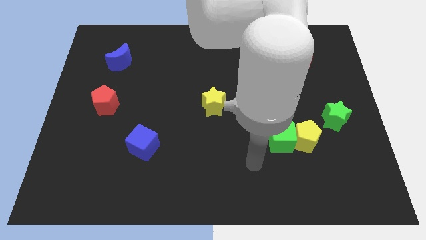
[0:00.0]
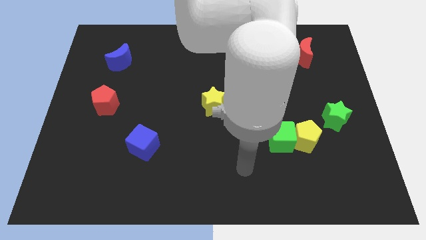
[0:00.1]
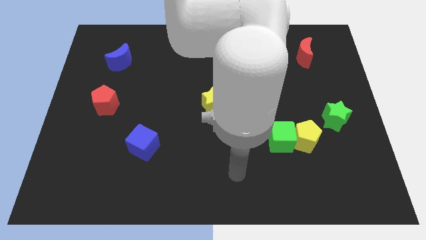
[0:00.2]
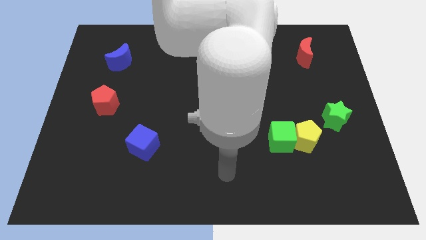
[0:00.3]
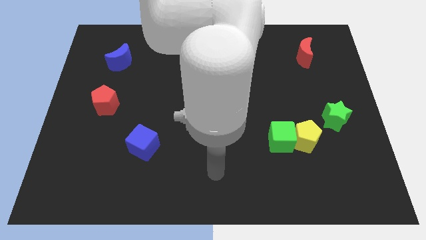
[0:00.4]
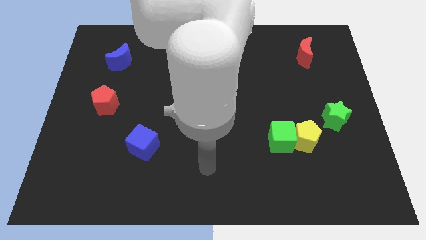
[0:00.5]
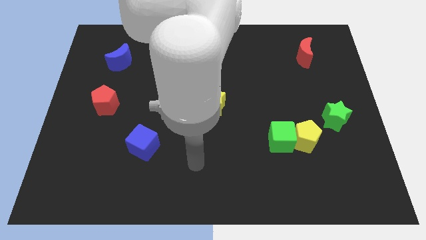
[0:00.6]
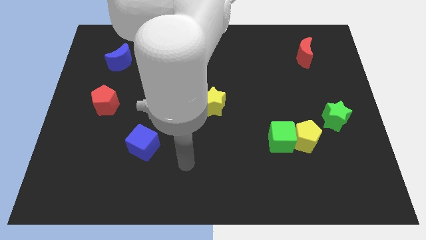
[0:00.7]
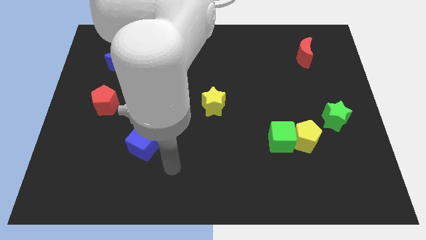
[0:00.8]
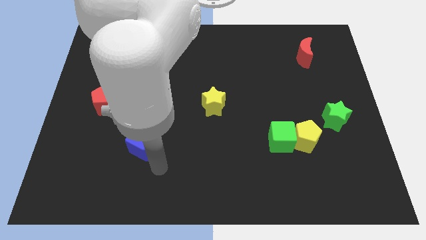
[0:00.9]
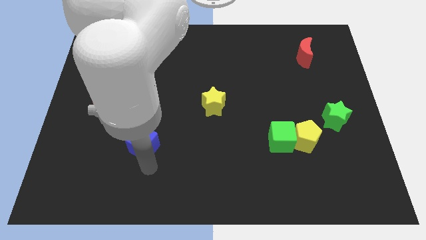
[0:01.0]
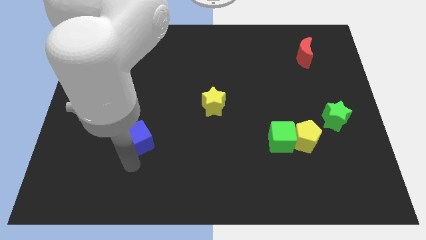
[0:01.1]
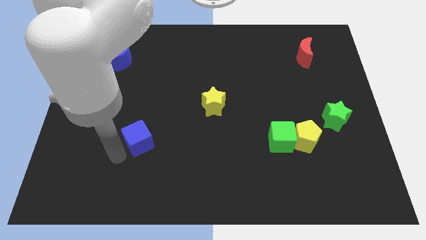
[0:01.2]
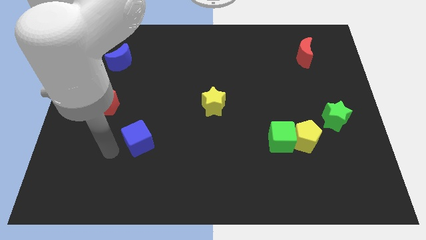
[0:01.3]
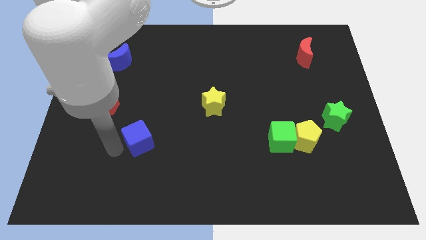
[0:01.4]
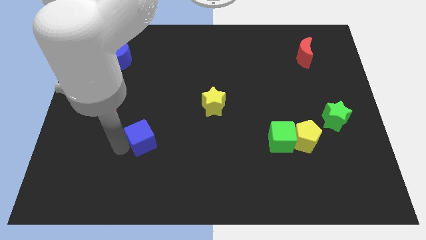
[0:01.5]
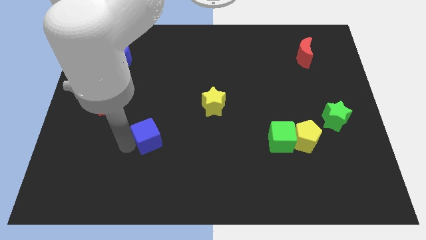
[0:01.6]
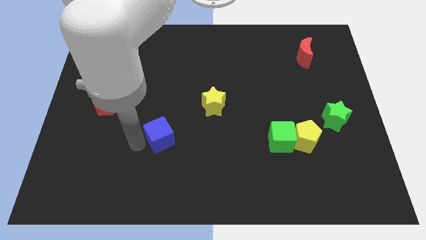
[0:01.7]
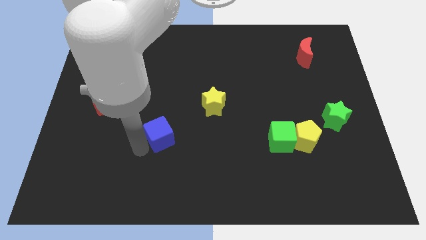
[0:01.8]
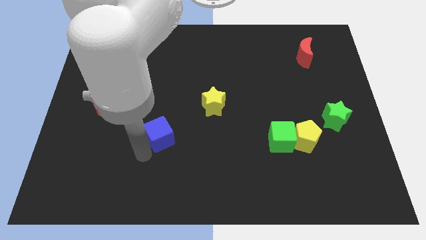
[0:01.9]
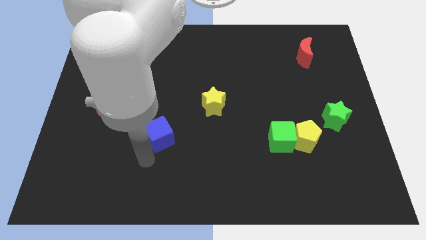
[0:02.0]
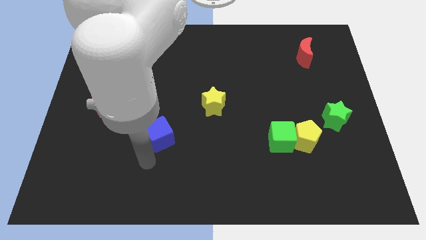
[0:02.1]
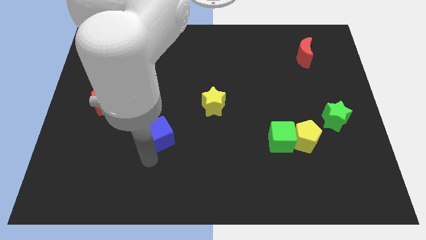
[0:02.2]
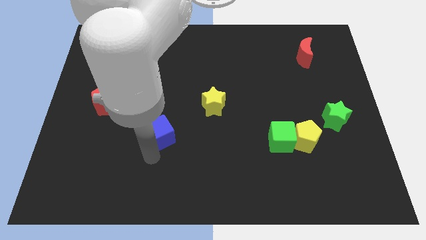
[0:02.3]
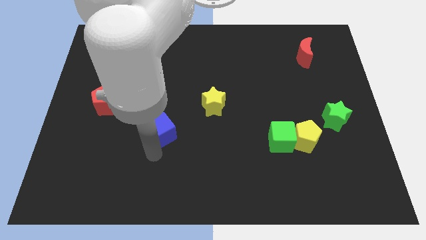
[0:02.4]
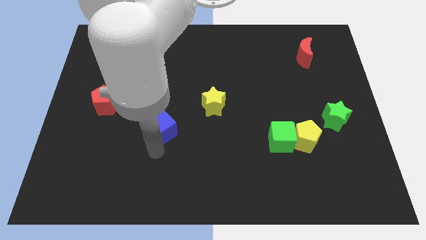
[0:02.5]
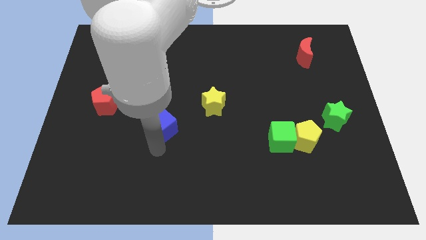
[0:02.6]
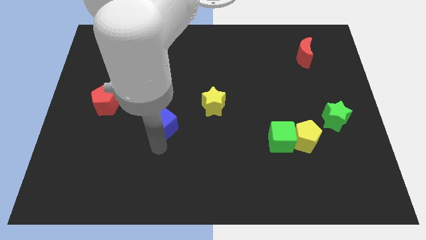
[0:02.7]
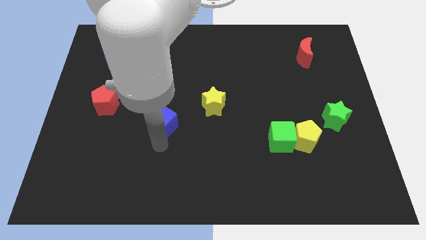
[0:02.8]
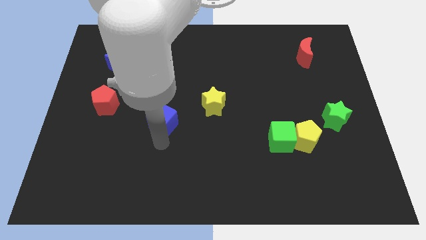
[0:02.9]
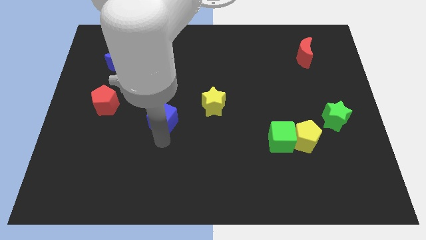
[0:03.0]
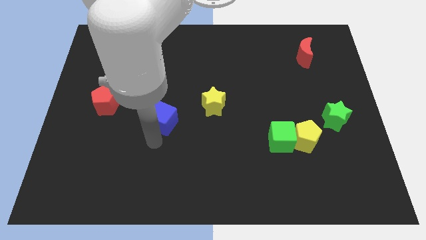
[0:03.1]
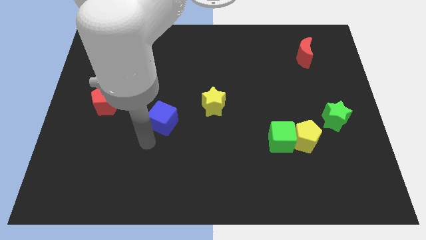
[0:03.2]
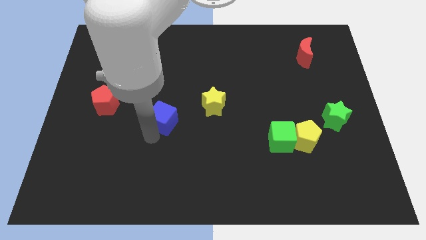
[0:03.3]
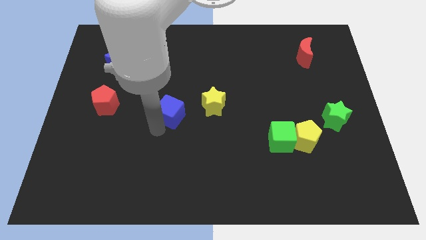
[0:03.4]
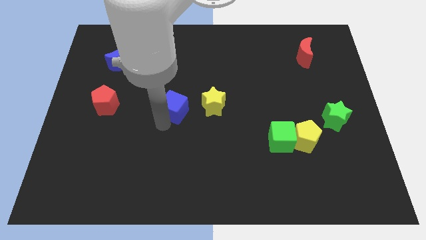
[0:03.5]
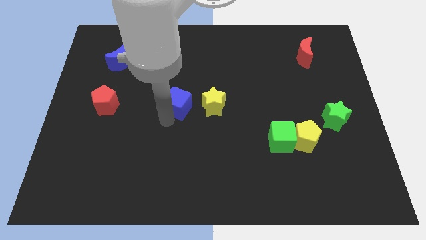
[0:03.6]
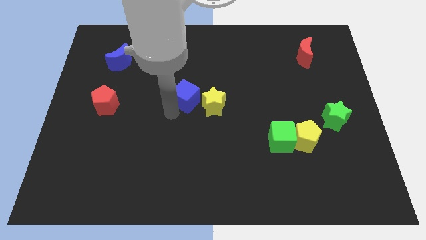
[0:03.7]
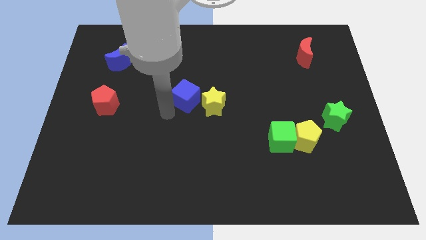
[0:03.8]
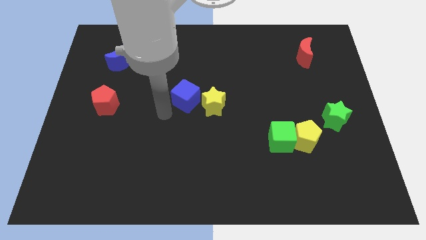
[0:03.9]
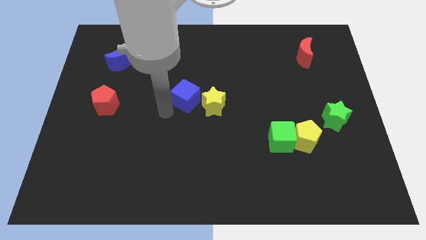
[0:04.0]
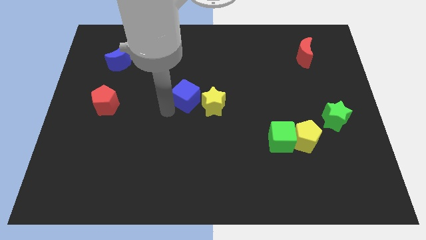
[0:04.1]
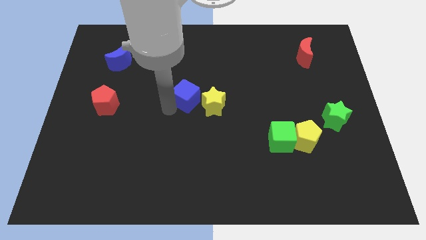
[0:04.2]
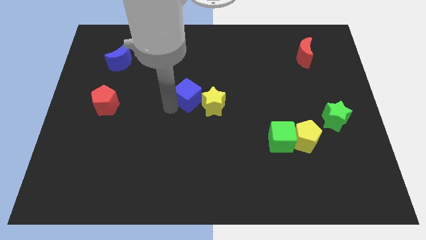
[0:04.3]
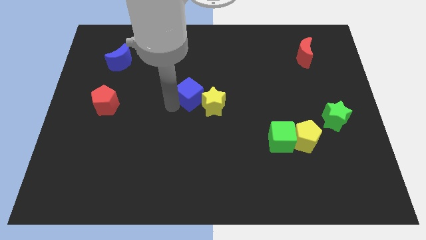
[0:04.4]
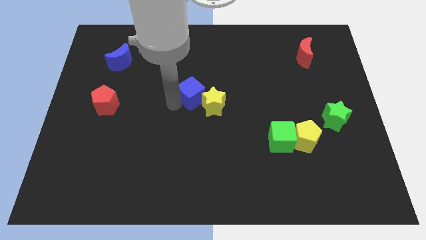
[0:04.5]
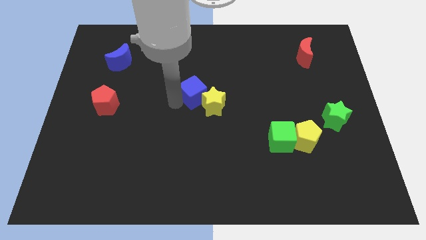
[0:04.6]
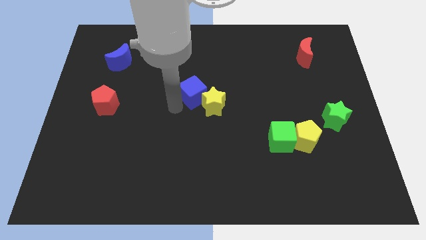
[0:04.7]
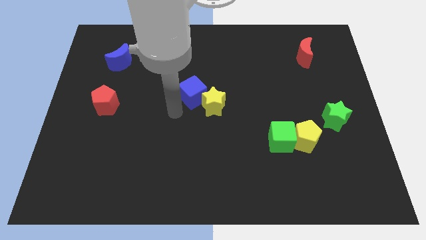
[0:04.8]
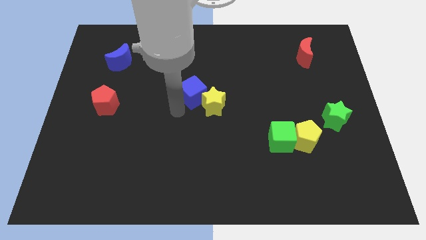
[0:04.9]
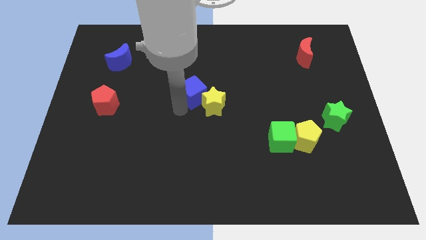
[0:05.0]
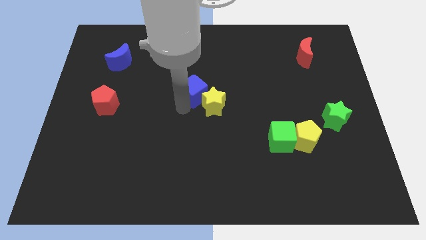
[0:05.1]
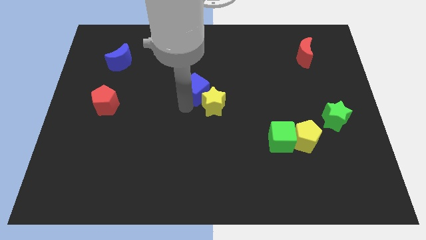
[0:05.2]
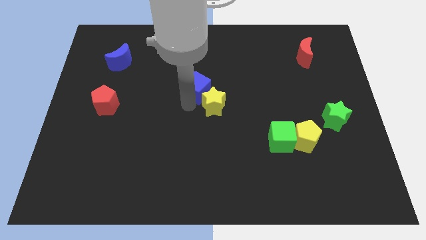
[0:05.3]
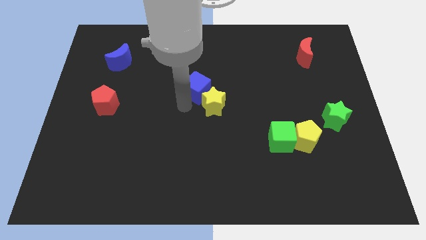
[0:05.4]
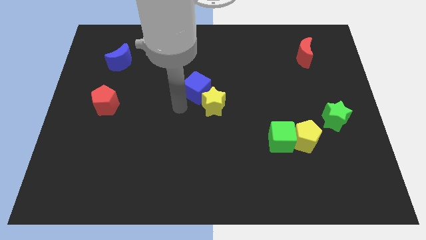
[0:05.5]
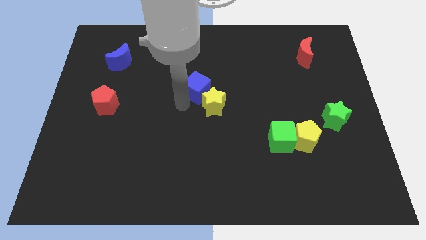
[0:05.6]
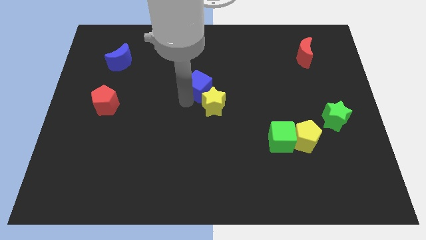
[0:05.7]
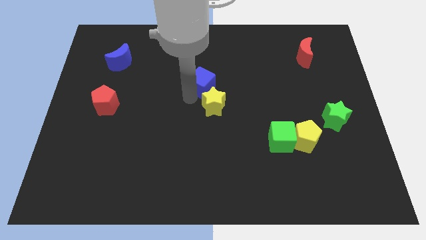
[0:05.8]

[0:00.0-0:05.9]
slide the blue cube up and to the right

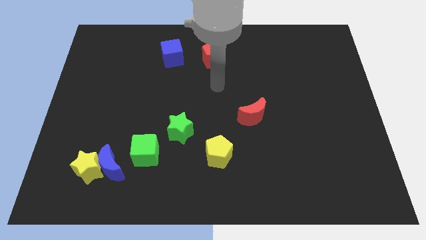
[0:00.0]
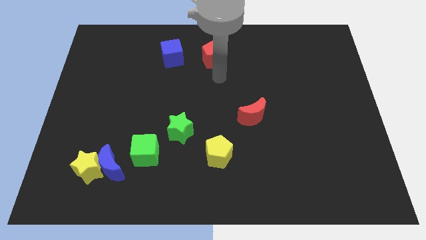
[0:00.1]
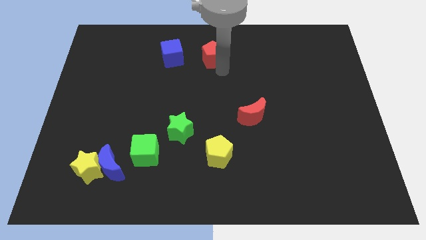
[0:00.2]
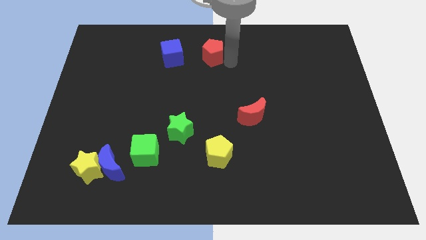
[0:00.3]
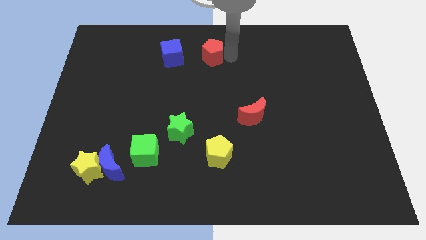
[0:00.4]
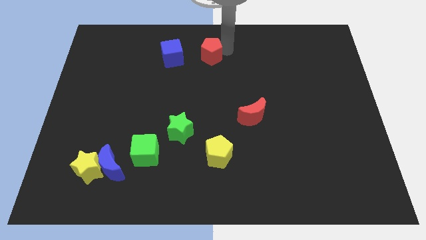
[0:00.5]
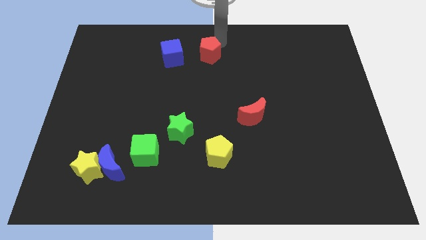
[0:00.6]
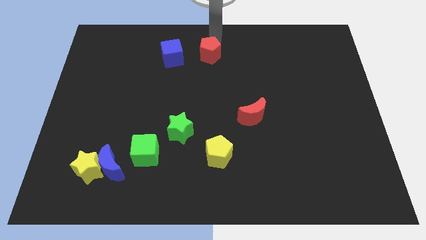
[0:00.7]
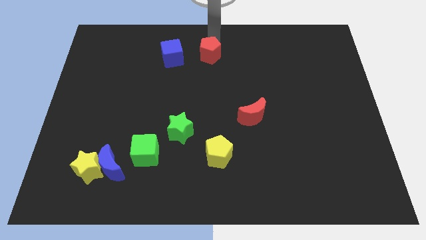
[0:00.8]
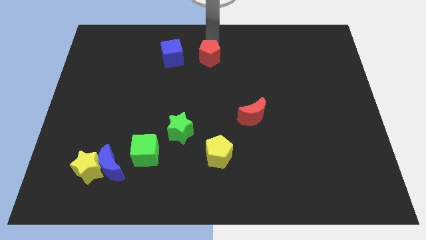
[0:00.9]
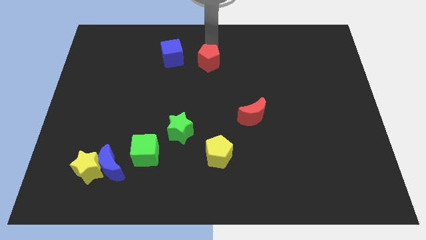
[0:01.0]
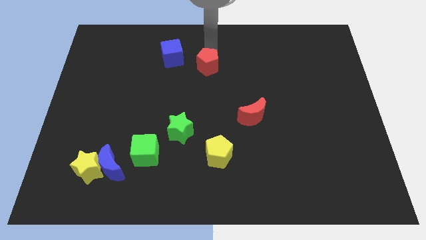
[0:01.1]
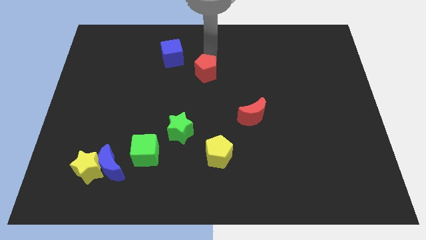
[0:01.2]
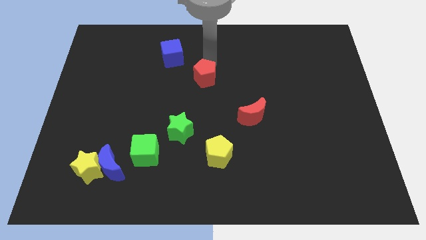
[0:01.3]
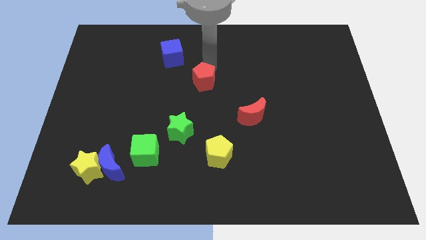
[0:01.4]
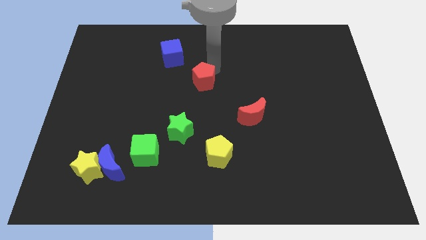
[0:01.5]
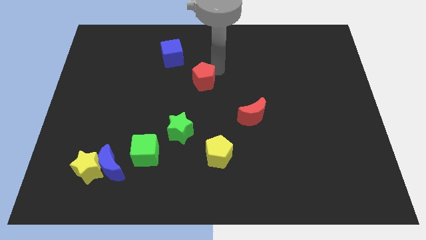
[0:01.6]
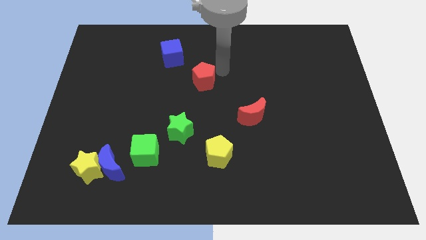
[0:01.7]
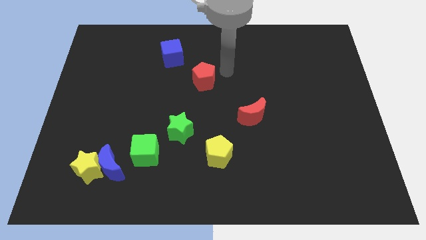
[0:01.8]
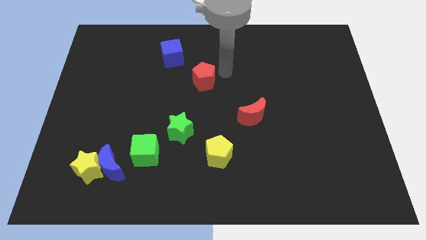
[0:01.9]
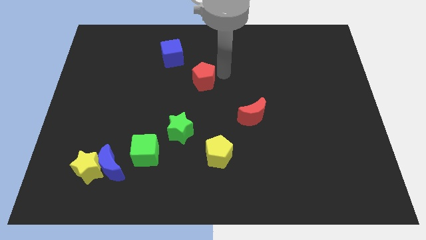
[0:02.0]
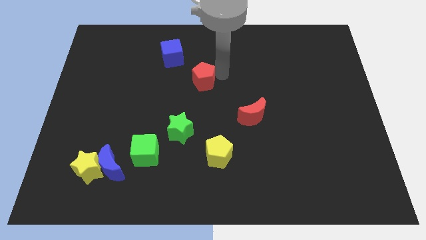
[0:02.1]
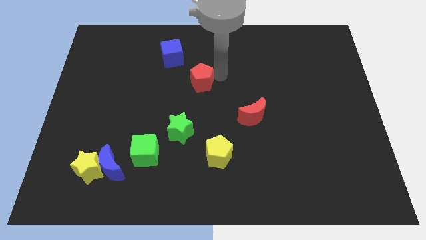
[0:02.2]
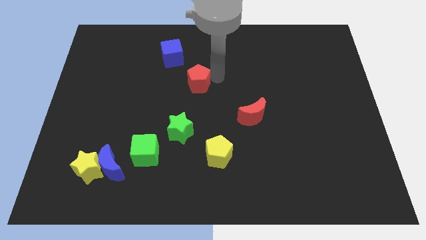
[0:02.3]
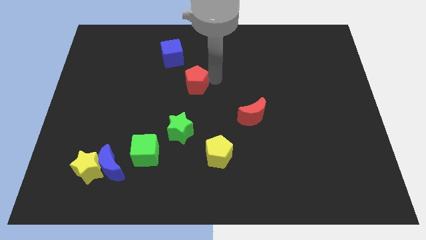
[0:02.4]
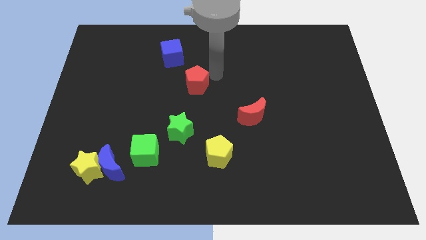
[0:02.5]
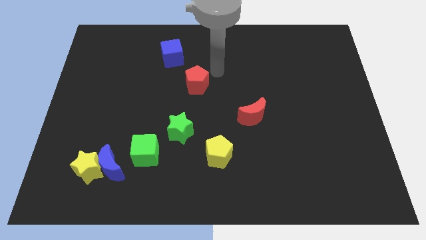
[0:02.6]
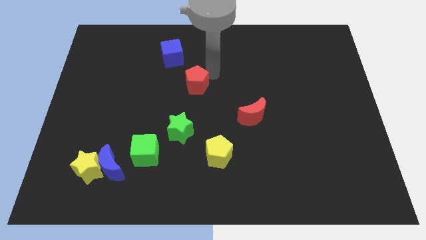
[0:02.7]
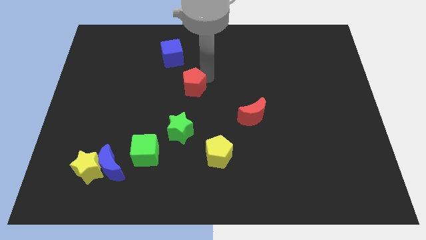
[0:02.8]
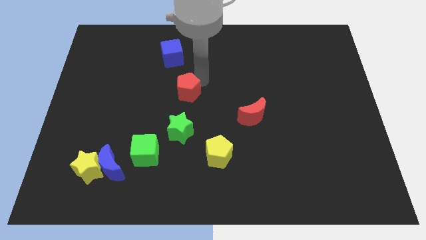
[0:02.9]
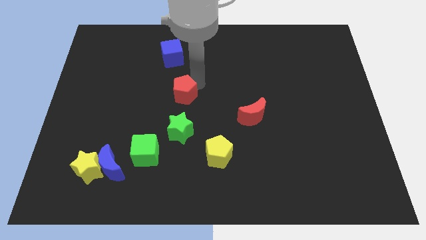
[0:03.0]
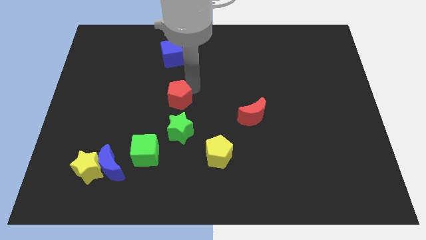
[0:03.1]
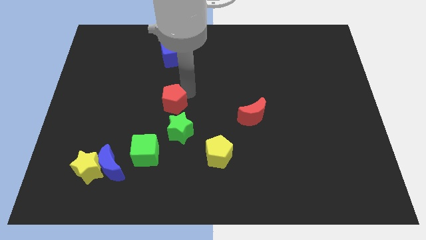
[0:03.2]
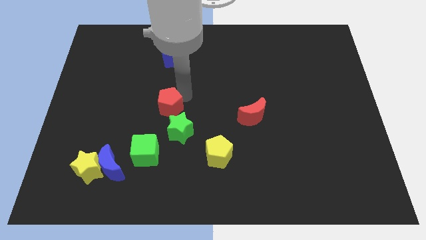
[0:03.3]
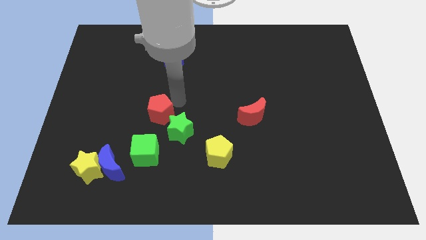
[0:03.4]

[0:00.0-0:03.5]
push the red pentagon downwards and left diagonally
